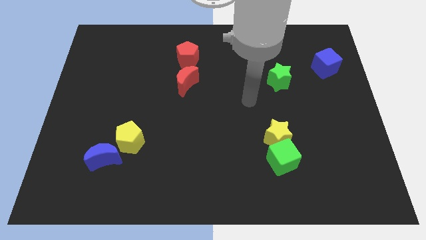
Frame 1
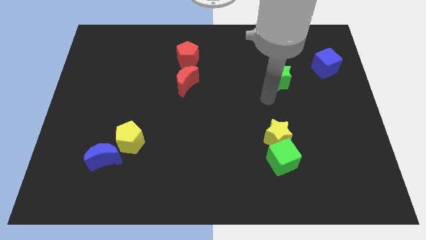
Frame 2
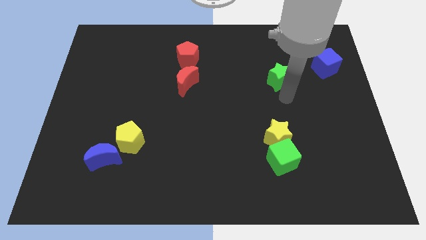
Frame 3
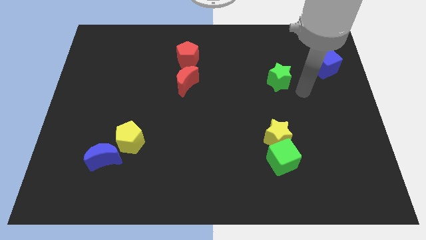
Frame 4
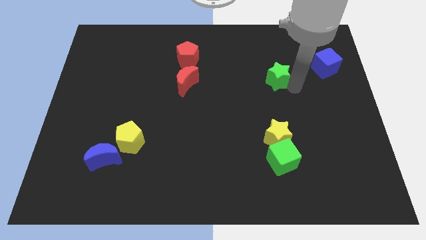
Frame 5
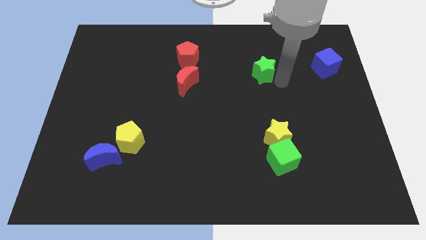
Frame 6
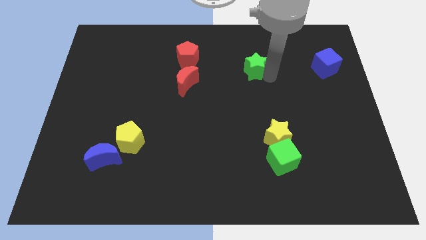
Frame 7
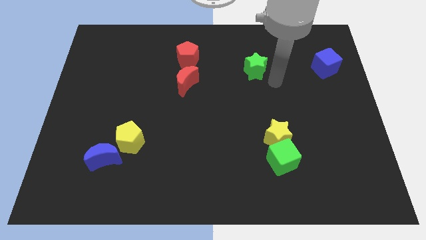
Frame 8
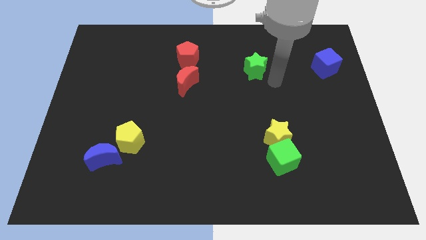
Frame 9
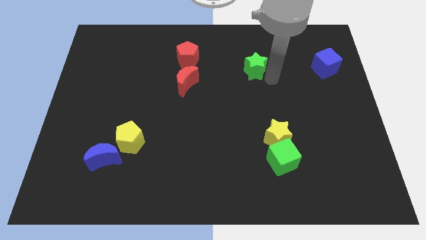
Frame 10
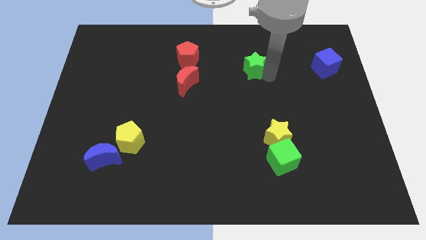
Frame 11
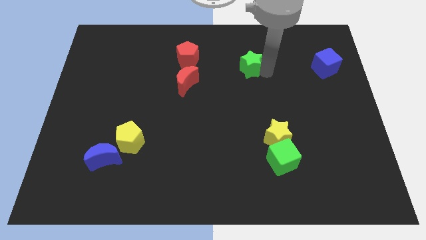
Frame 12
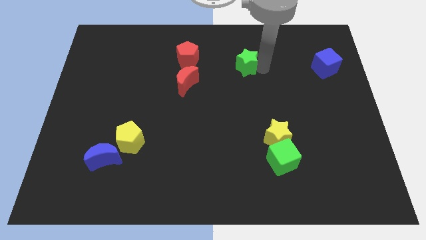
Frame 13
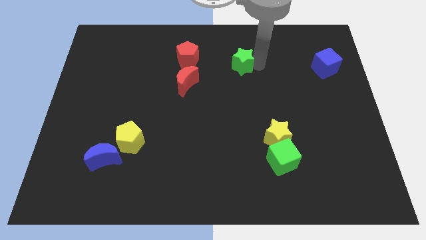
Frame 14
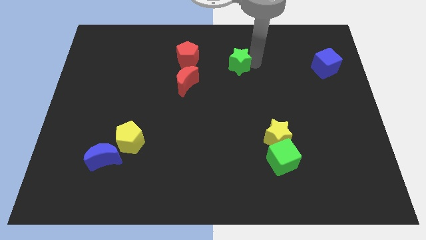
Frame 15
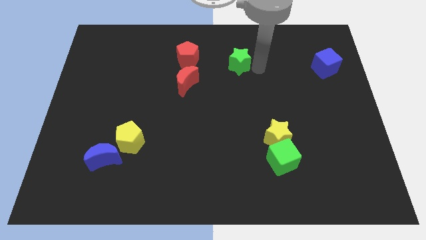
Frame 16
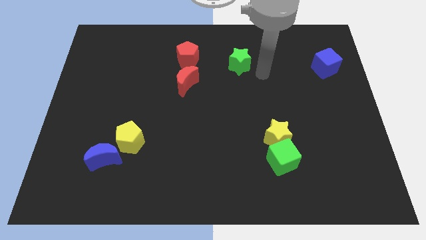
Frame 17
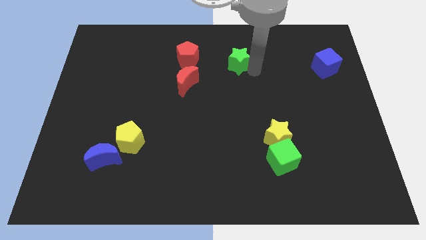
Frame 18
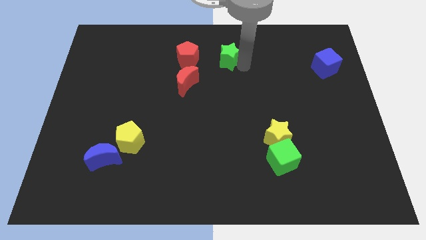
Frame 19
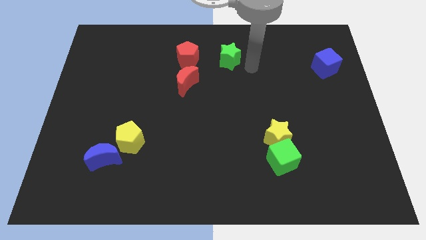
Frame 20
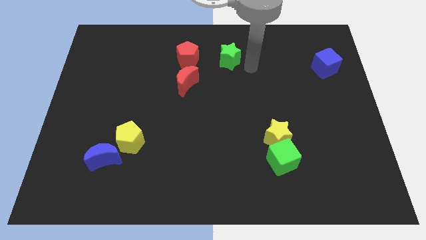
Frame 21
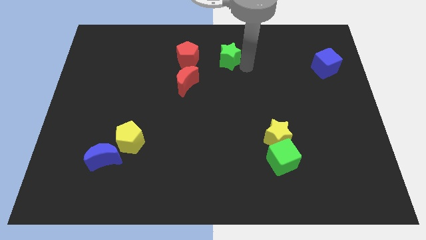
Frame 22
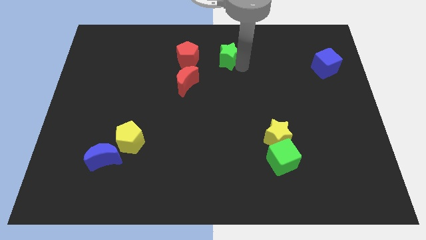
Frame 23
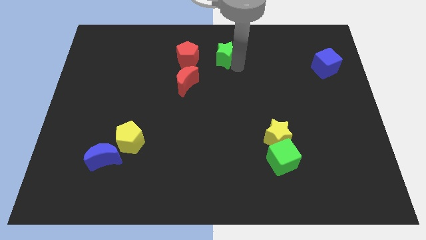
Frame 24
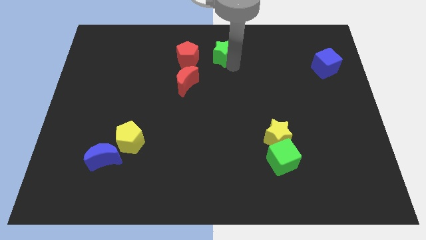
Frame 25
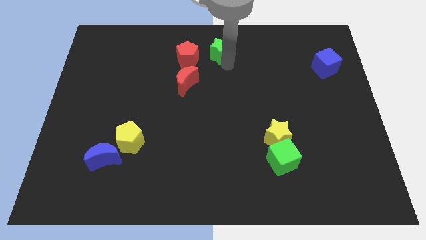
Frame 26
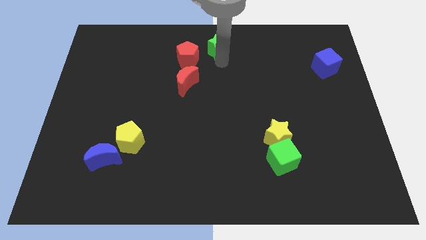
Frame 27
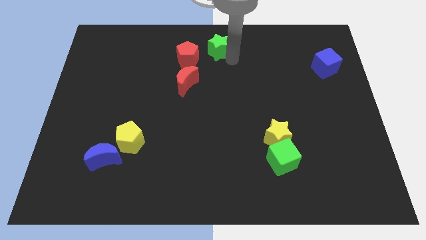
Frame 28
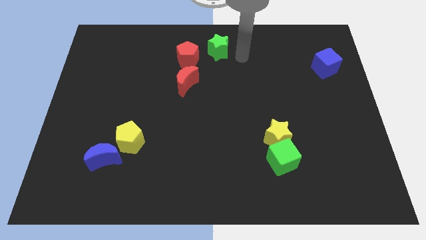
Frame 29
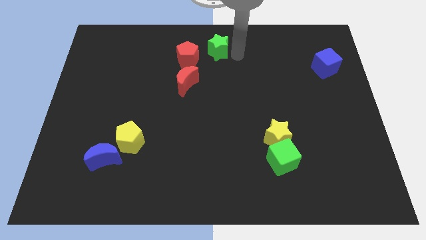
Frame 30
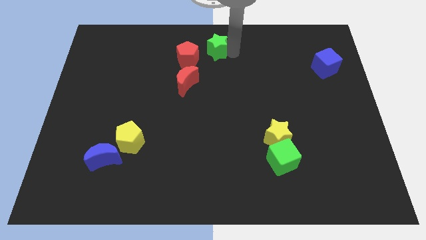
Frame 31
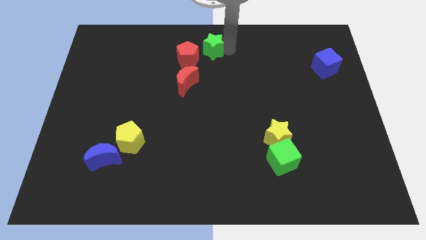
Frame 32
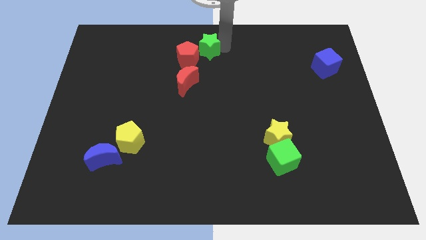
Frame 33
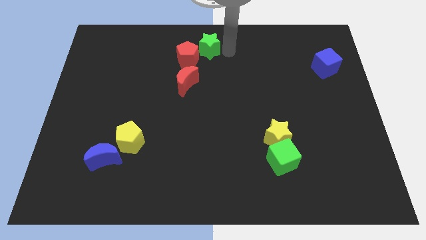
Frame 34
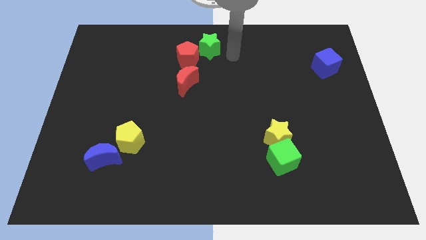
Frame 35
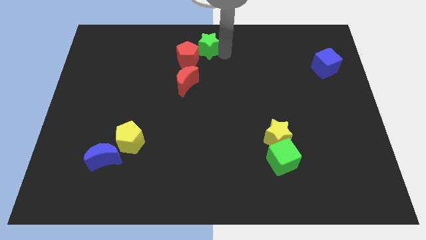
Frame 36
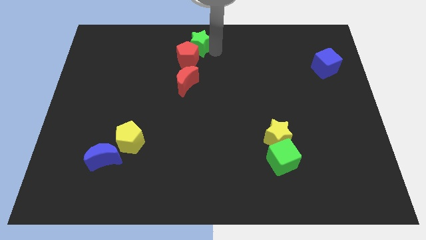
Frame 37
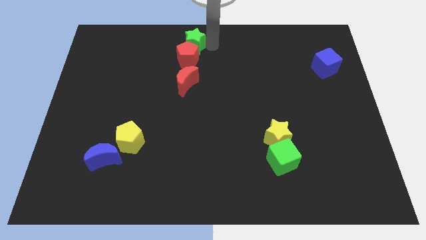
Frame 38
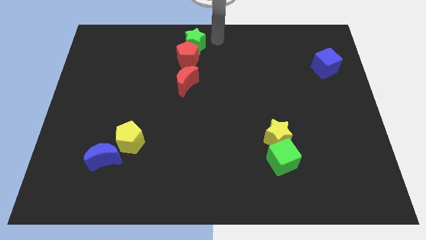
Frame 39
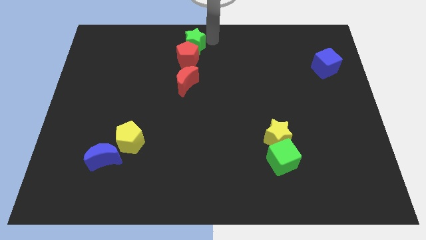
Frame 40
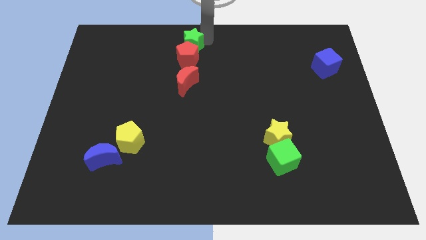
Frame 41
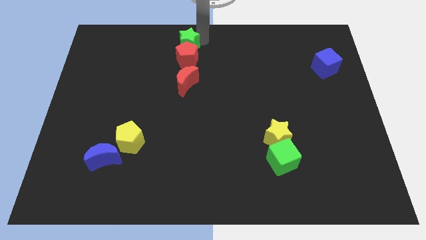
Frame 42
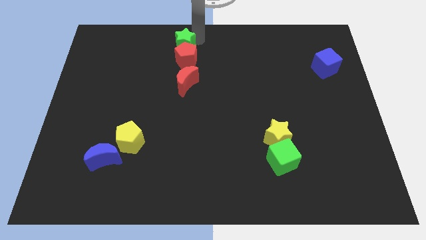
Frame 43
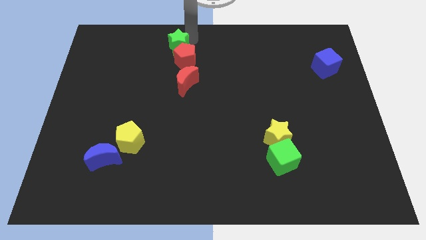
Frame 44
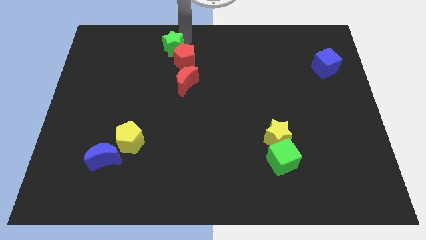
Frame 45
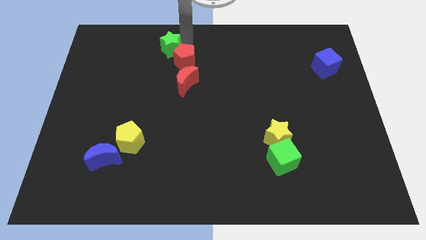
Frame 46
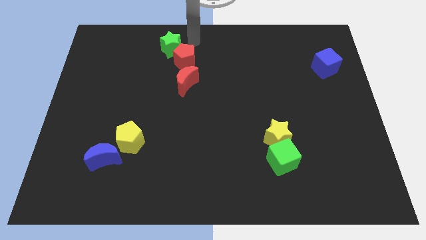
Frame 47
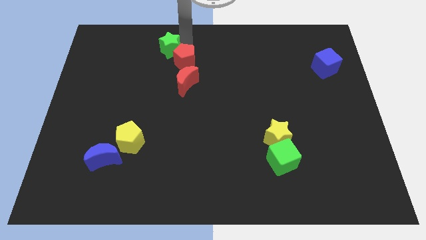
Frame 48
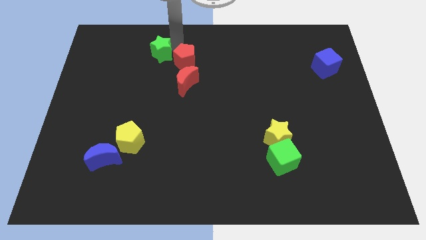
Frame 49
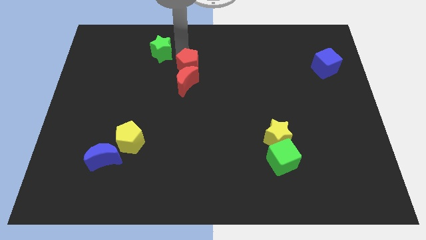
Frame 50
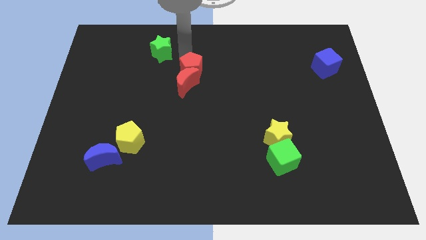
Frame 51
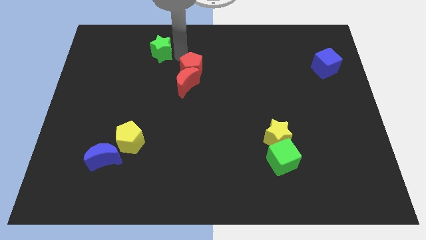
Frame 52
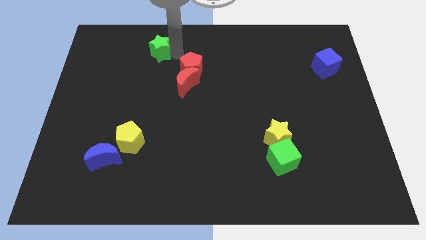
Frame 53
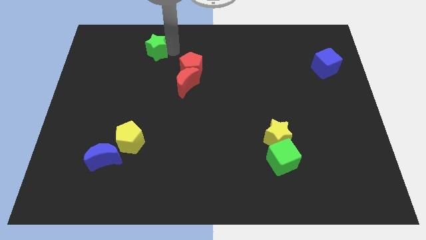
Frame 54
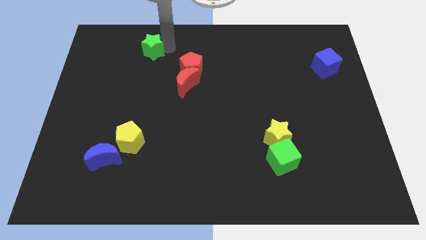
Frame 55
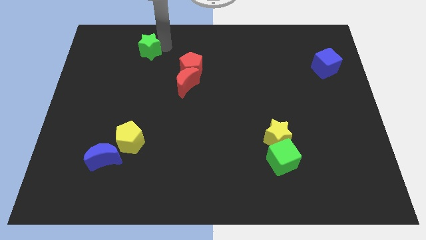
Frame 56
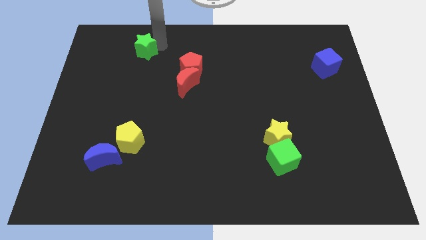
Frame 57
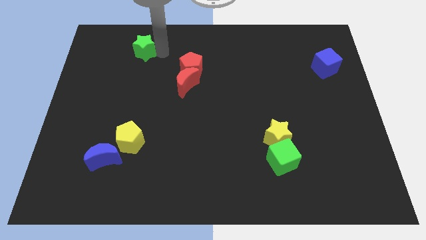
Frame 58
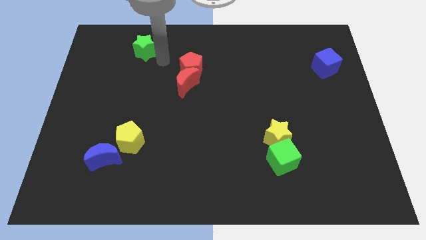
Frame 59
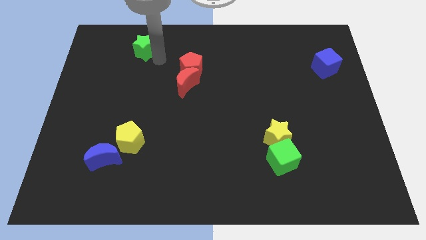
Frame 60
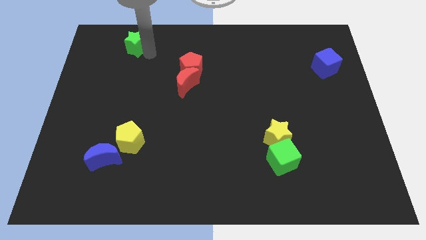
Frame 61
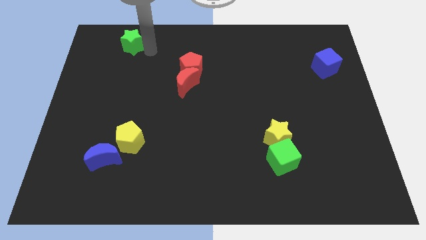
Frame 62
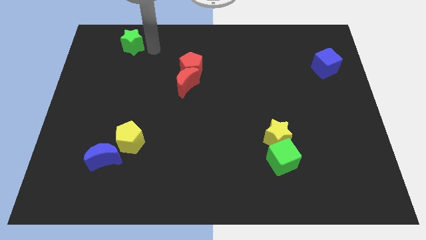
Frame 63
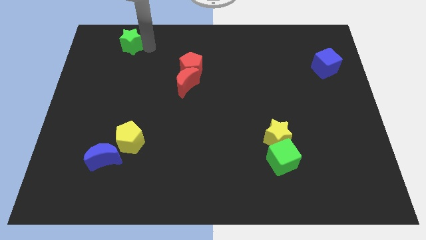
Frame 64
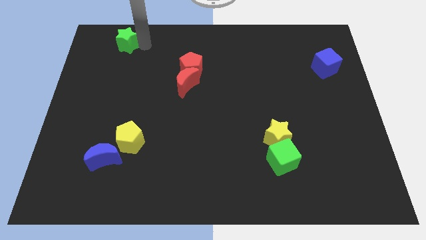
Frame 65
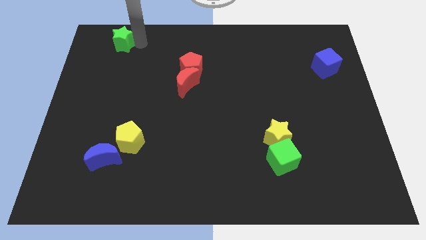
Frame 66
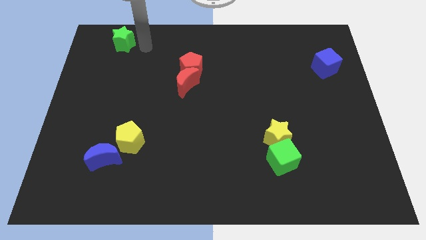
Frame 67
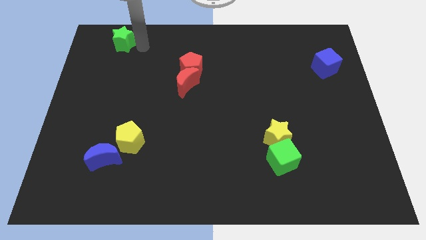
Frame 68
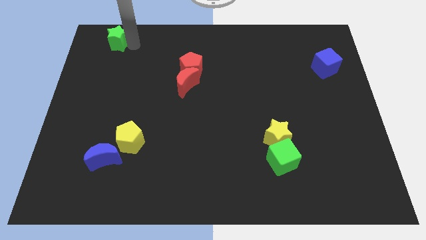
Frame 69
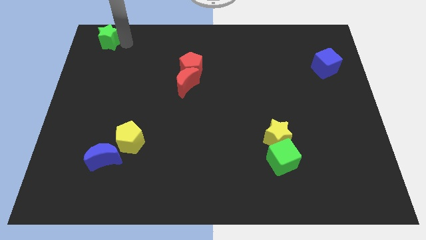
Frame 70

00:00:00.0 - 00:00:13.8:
move the green star to the top left of the board

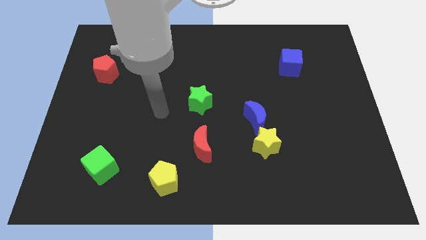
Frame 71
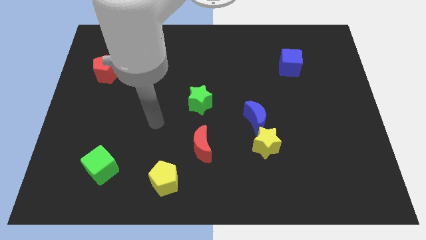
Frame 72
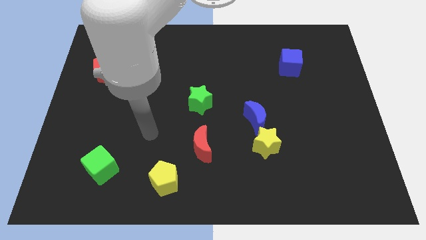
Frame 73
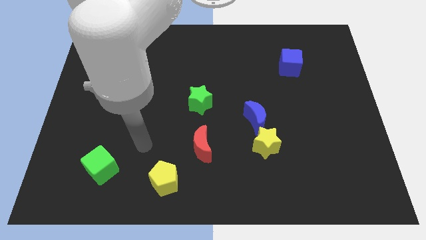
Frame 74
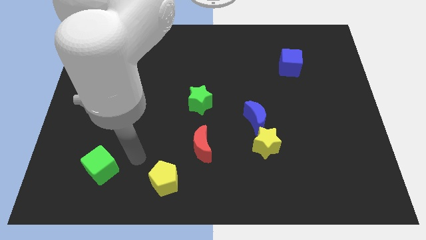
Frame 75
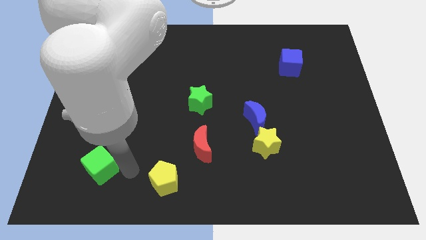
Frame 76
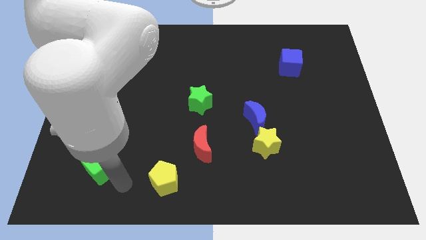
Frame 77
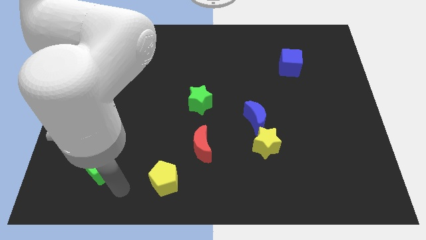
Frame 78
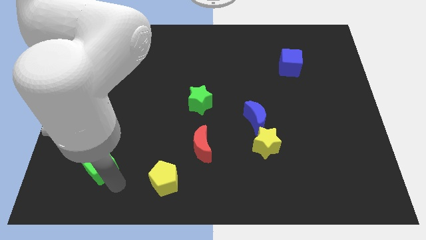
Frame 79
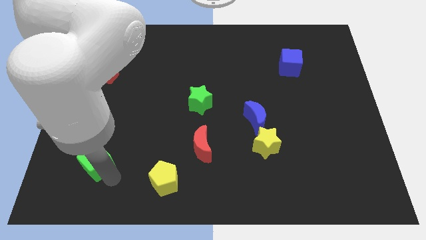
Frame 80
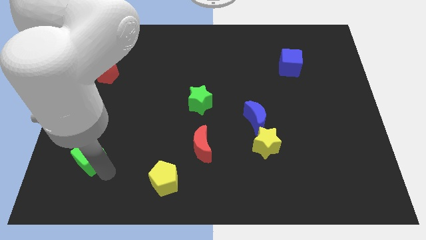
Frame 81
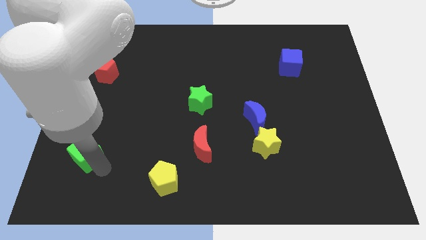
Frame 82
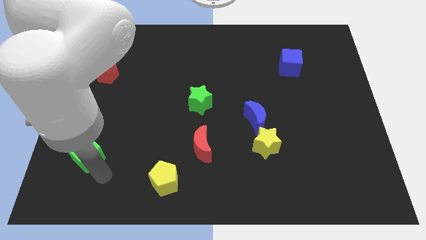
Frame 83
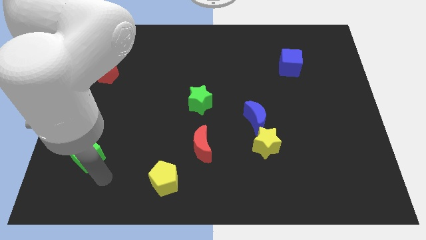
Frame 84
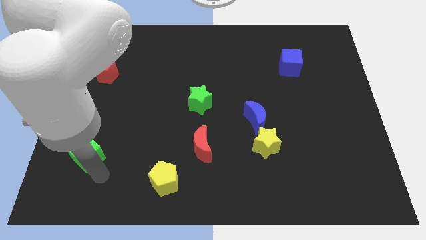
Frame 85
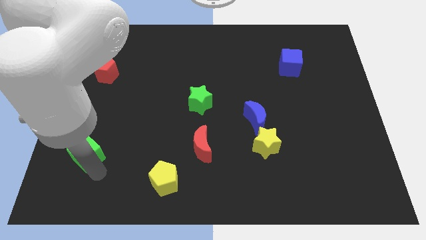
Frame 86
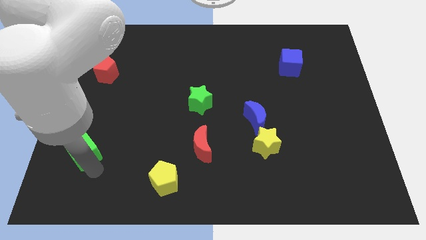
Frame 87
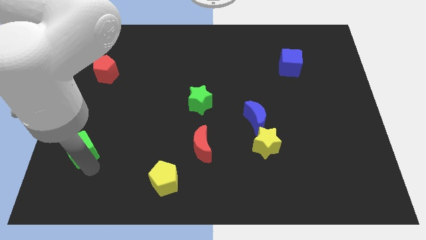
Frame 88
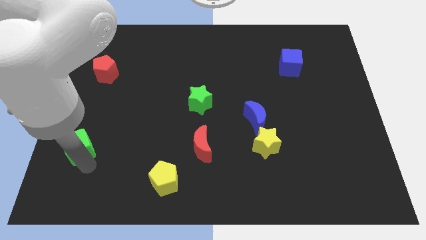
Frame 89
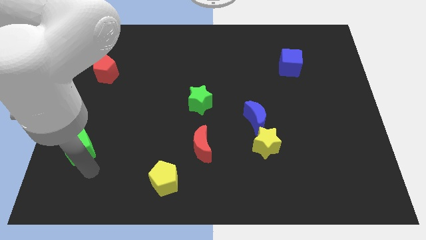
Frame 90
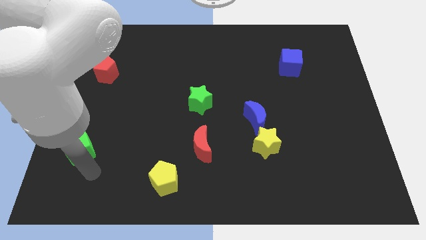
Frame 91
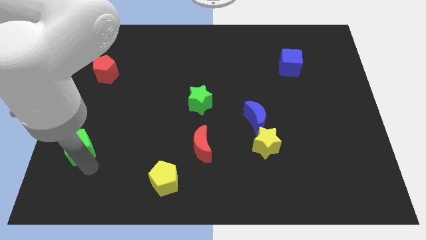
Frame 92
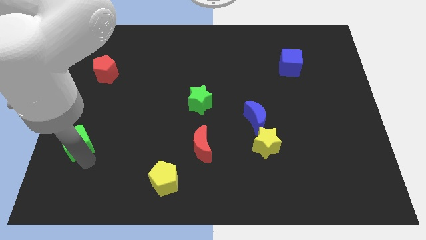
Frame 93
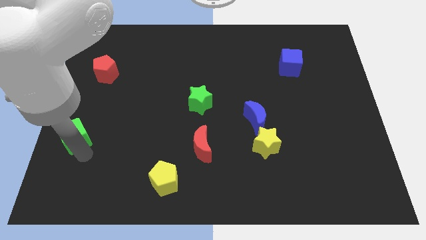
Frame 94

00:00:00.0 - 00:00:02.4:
push the green cube to the left side
